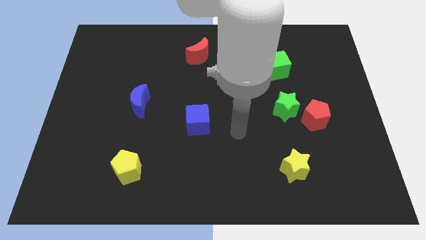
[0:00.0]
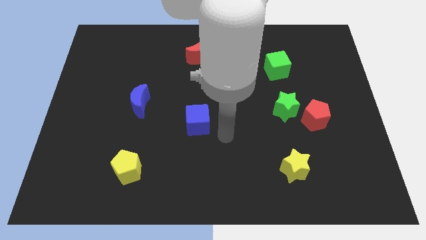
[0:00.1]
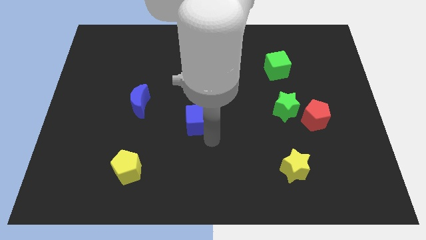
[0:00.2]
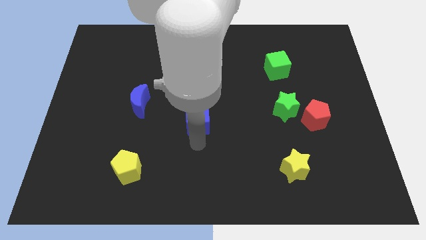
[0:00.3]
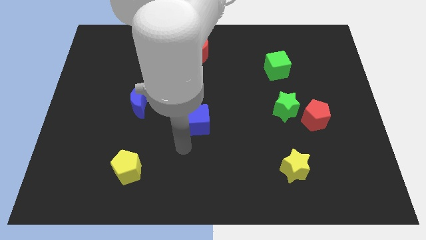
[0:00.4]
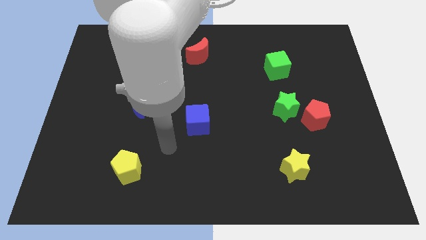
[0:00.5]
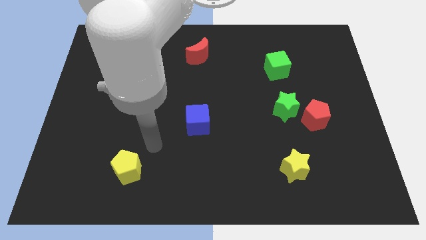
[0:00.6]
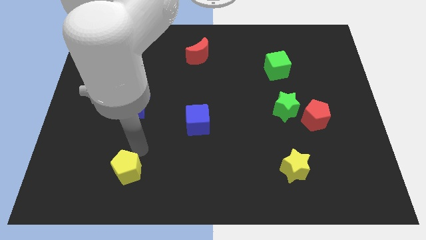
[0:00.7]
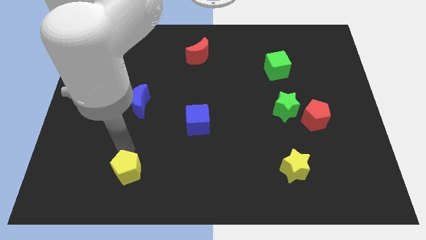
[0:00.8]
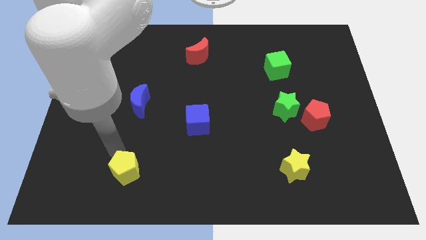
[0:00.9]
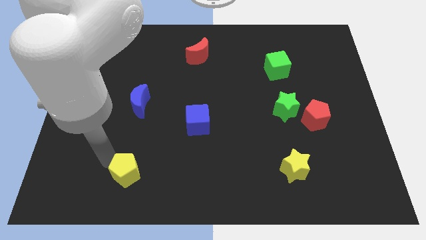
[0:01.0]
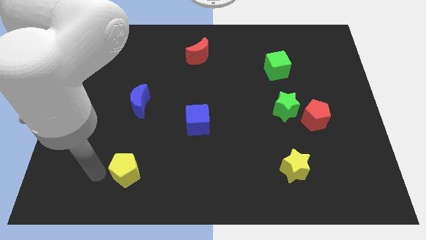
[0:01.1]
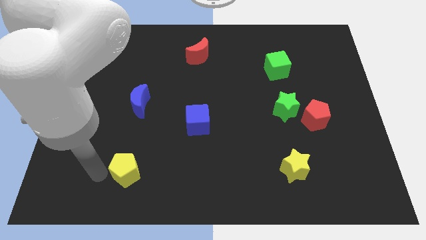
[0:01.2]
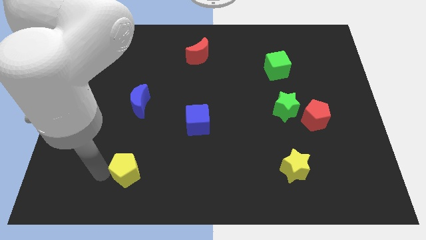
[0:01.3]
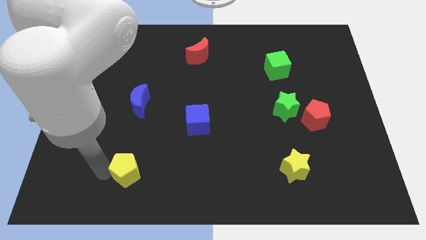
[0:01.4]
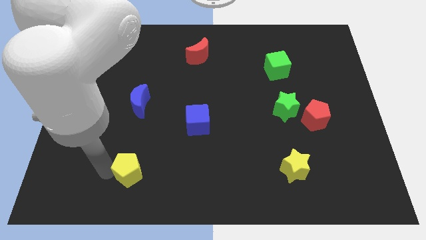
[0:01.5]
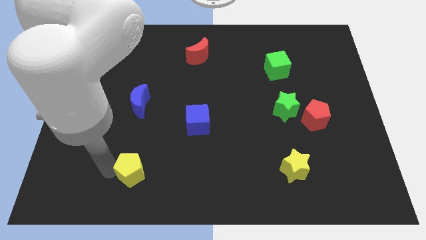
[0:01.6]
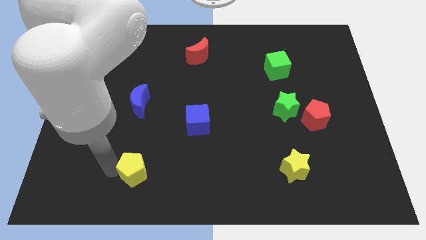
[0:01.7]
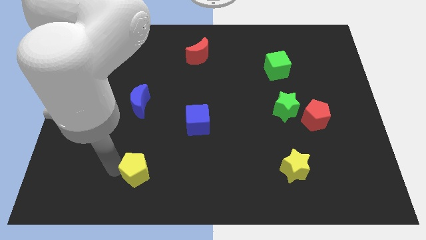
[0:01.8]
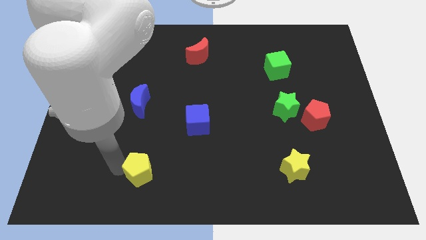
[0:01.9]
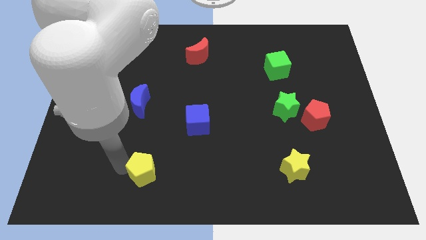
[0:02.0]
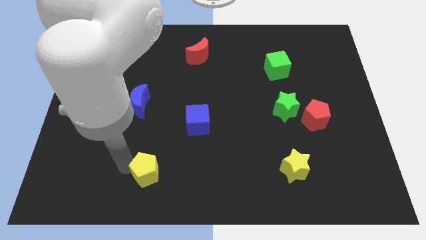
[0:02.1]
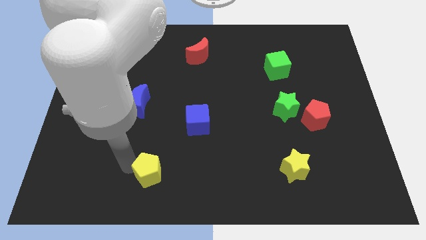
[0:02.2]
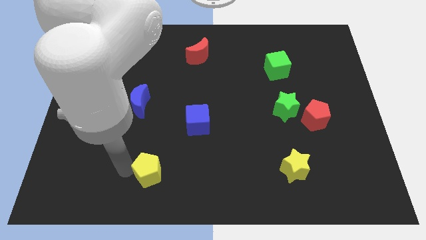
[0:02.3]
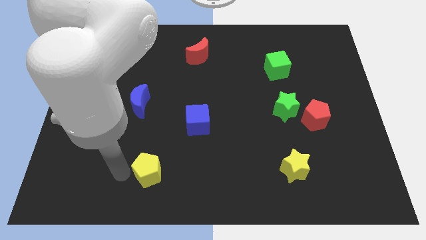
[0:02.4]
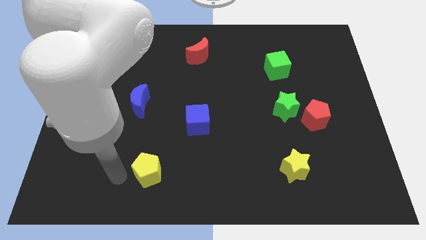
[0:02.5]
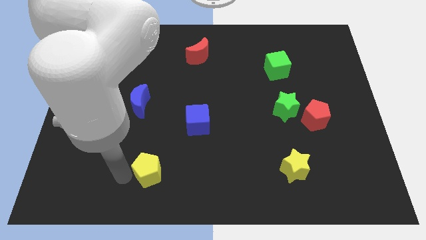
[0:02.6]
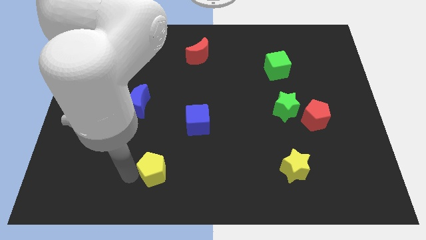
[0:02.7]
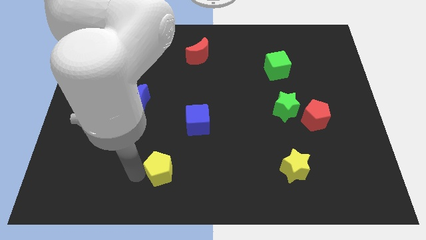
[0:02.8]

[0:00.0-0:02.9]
slide the yellow pentagon to the right slightly

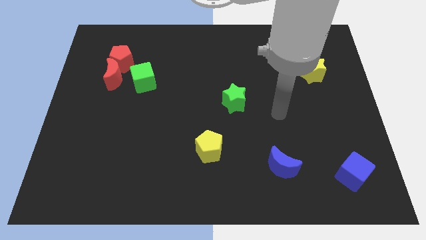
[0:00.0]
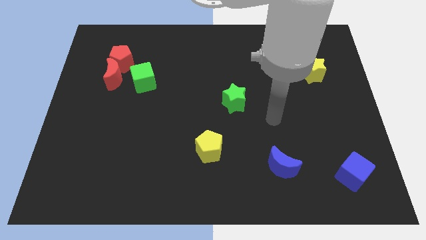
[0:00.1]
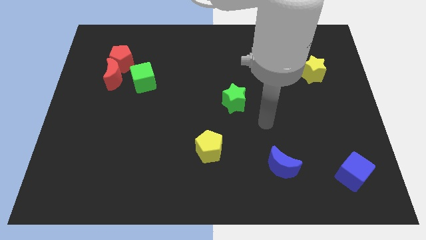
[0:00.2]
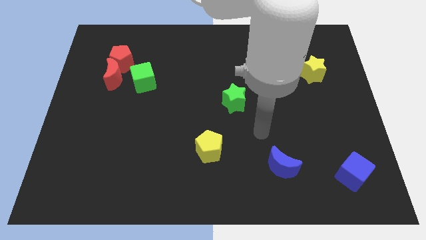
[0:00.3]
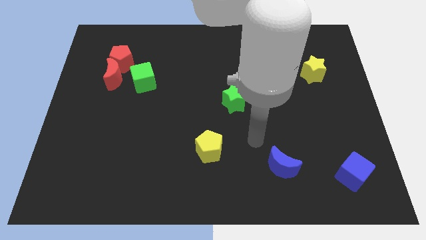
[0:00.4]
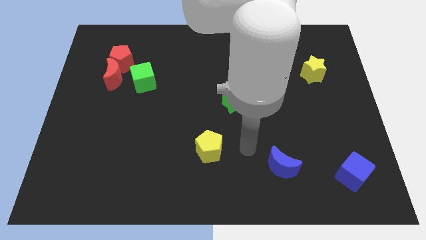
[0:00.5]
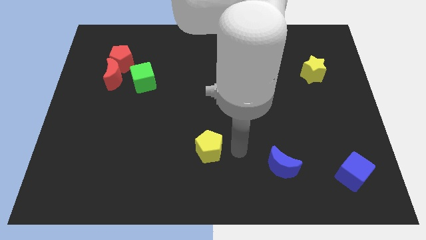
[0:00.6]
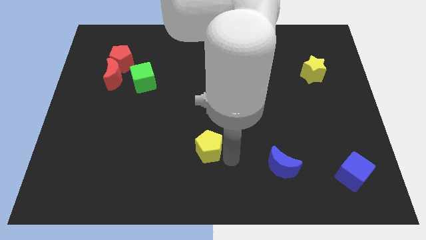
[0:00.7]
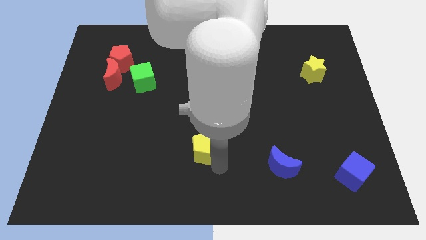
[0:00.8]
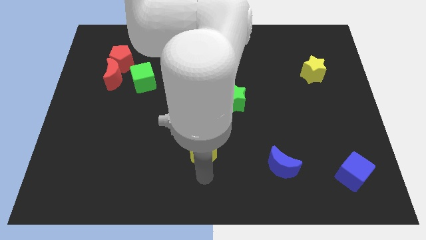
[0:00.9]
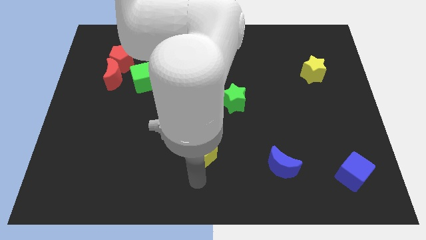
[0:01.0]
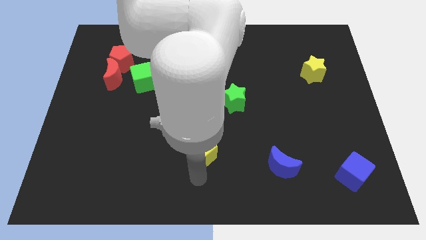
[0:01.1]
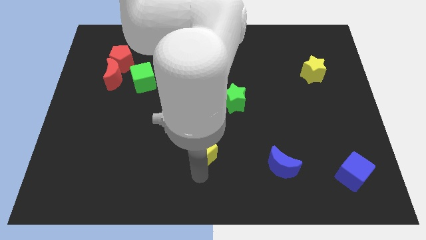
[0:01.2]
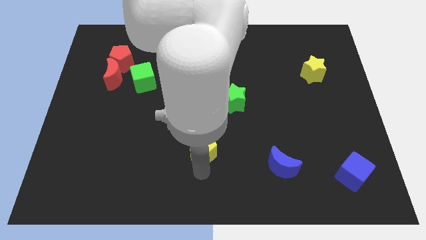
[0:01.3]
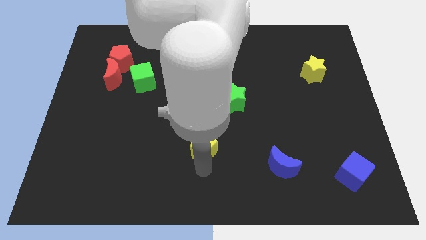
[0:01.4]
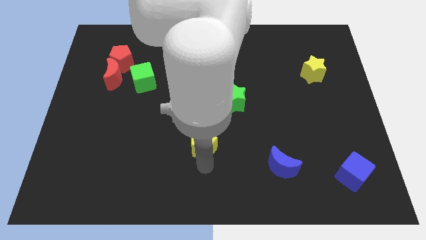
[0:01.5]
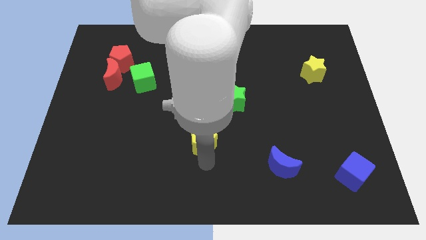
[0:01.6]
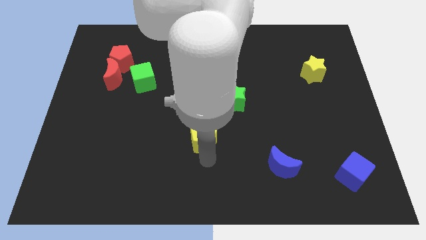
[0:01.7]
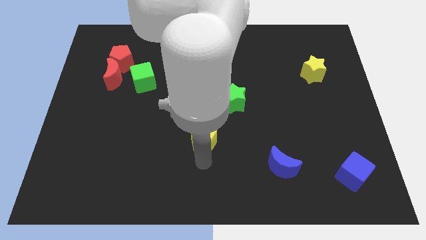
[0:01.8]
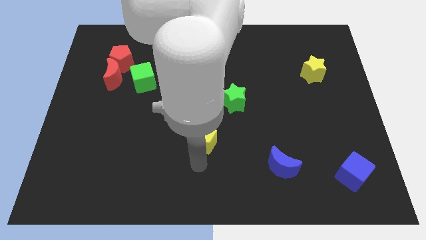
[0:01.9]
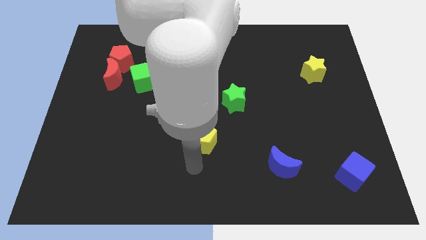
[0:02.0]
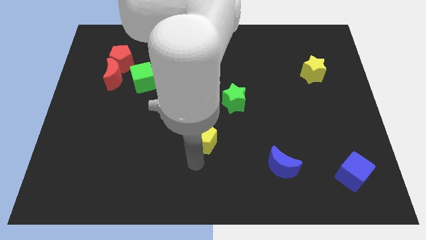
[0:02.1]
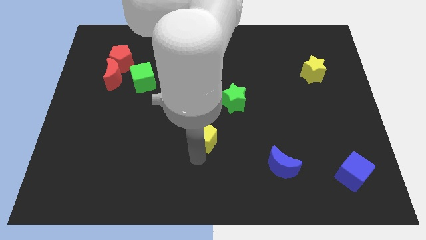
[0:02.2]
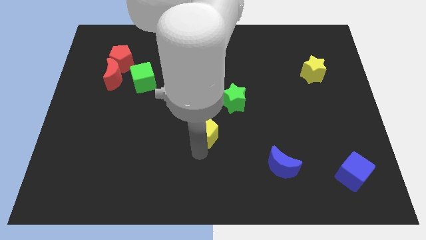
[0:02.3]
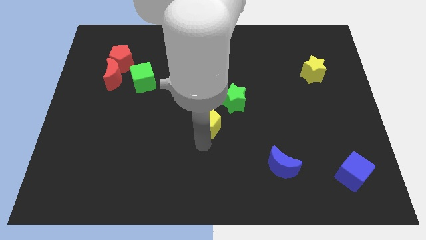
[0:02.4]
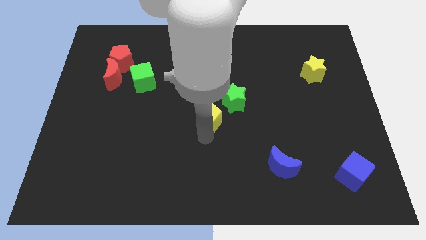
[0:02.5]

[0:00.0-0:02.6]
slightly move the yellow pentagon up

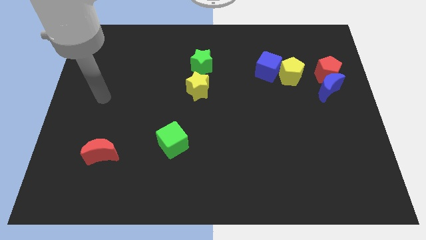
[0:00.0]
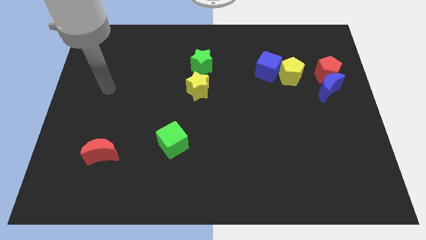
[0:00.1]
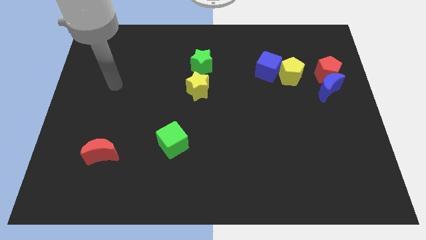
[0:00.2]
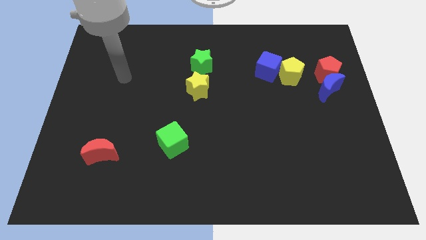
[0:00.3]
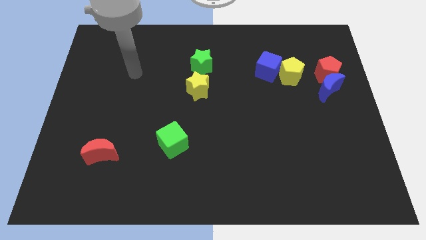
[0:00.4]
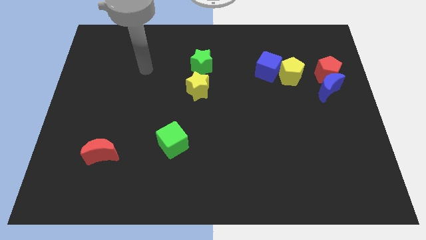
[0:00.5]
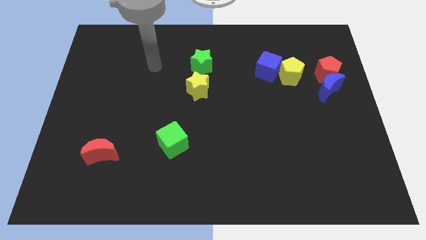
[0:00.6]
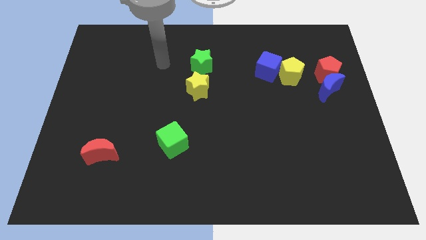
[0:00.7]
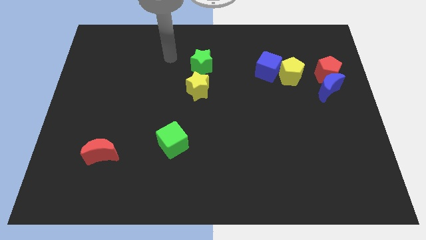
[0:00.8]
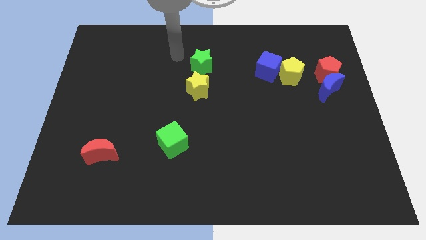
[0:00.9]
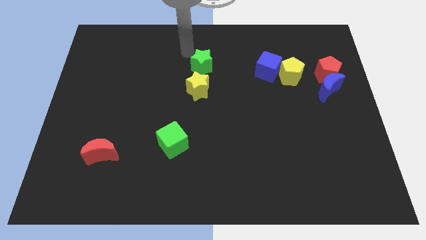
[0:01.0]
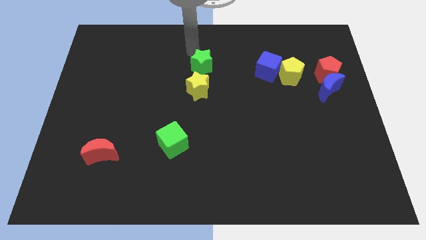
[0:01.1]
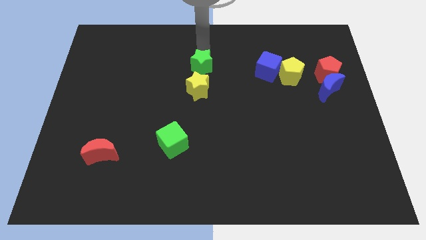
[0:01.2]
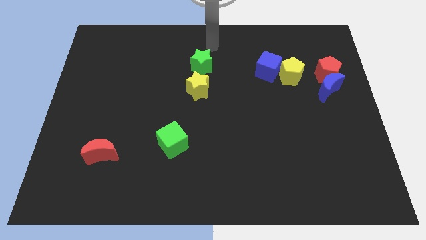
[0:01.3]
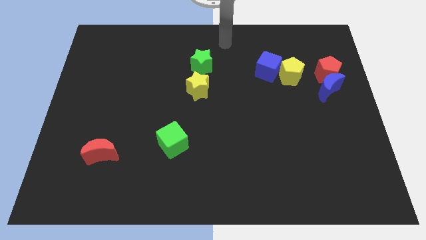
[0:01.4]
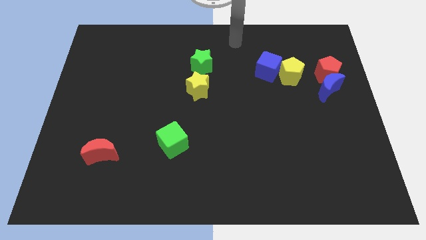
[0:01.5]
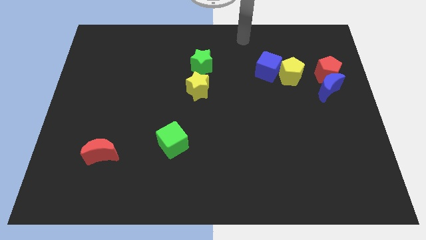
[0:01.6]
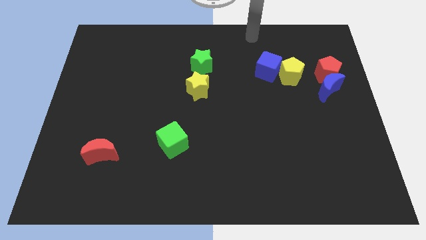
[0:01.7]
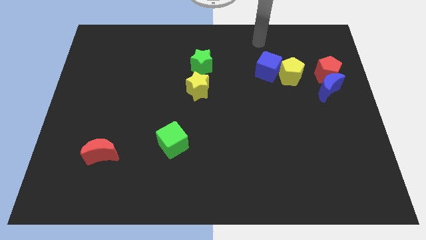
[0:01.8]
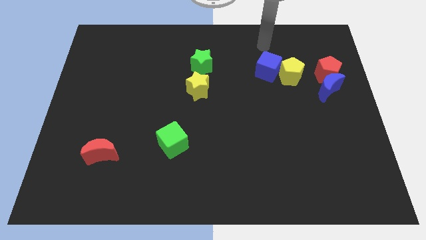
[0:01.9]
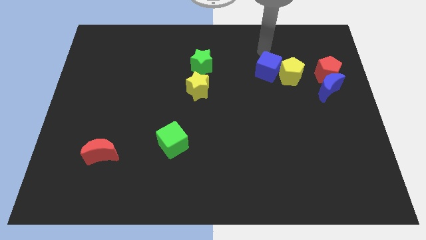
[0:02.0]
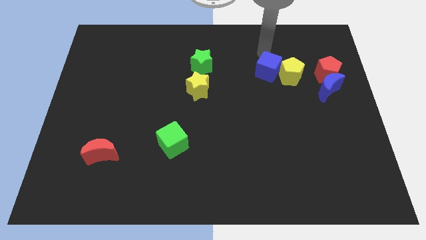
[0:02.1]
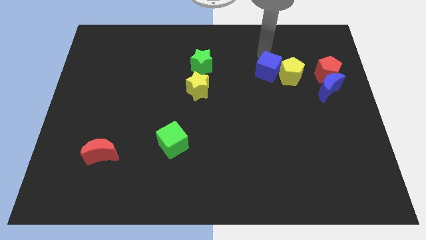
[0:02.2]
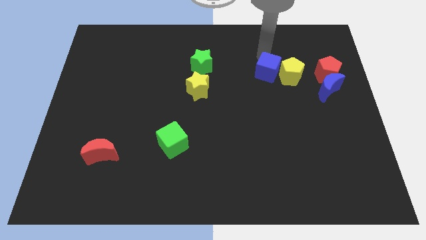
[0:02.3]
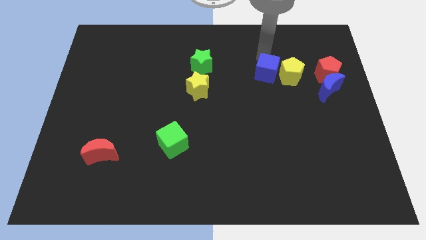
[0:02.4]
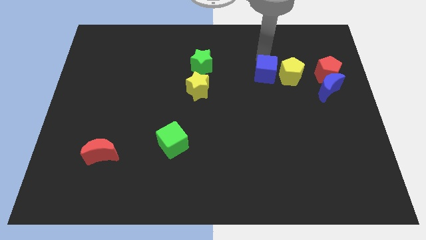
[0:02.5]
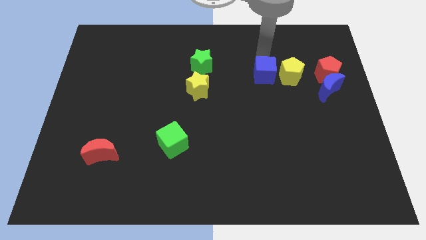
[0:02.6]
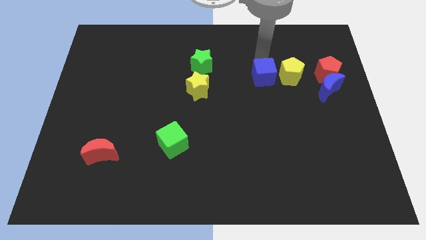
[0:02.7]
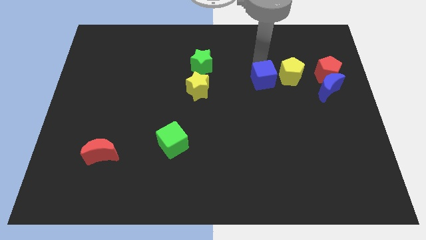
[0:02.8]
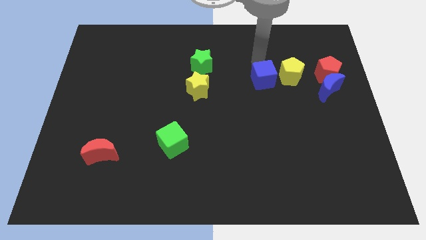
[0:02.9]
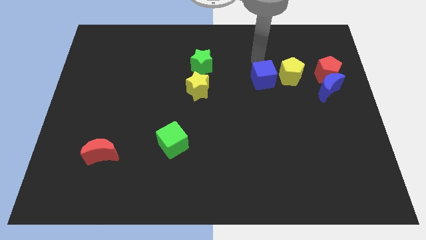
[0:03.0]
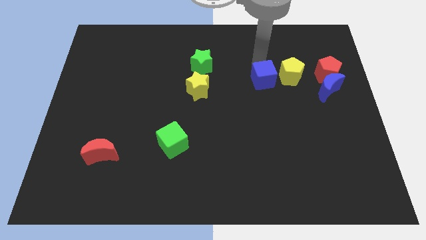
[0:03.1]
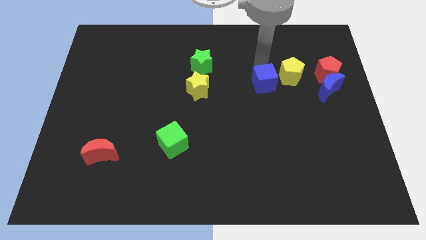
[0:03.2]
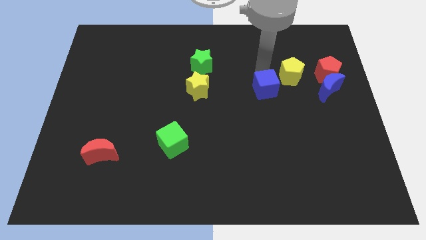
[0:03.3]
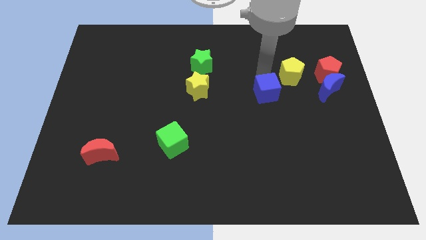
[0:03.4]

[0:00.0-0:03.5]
slightly move the blue cube downwards
